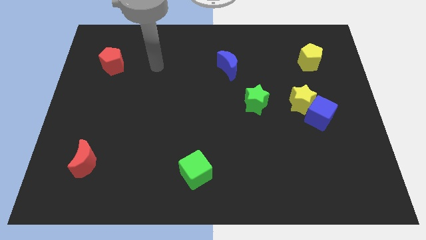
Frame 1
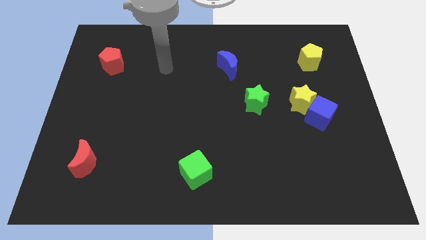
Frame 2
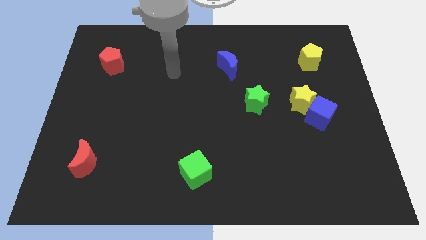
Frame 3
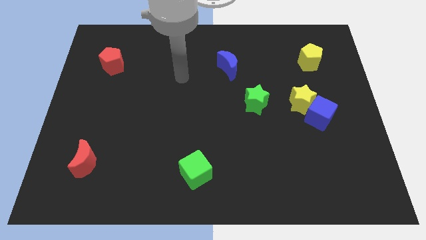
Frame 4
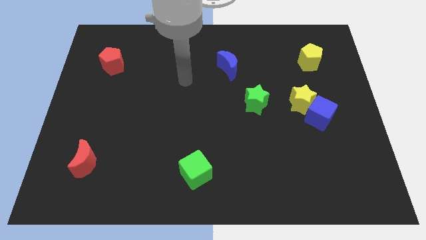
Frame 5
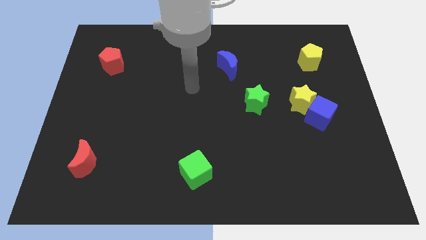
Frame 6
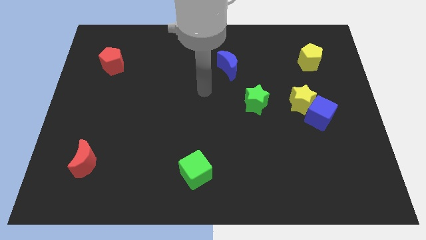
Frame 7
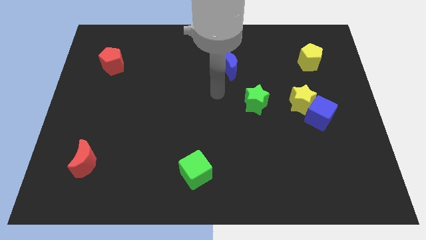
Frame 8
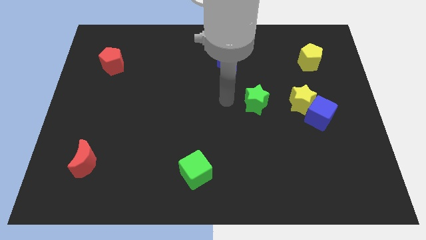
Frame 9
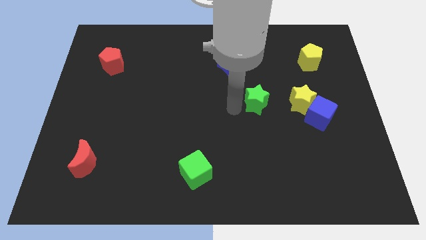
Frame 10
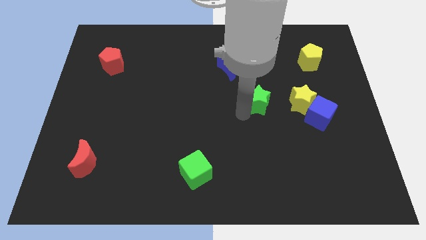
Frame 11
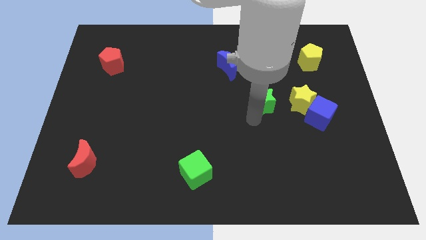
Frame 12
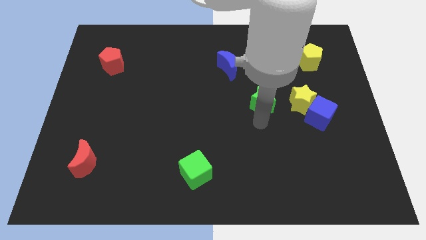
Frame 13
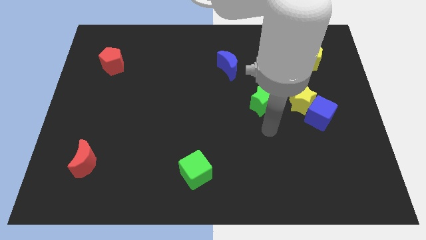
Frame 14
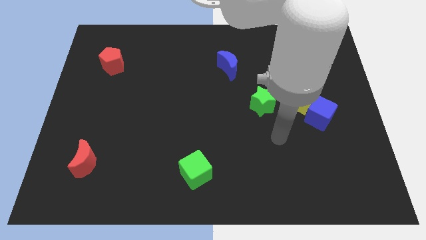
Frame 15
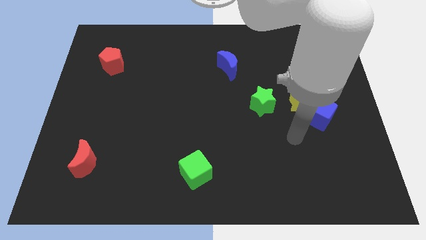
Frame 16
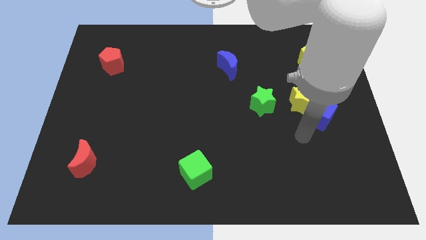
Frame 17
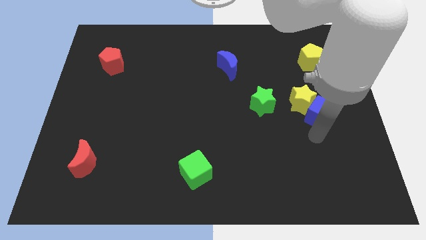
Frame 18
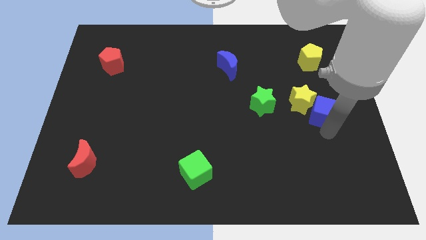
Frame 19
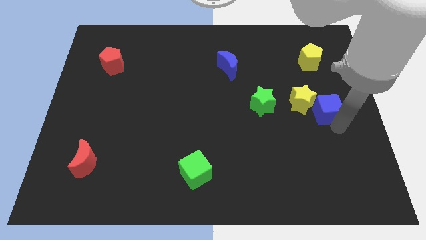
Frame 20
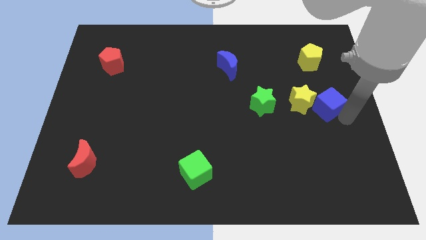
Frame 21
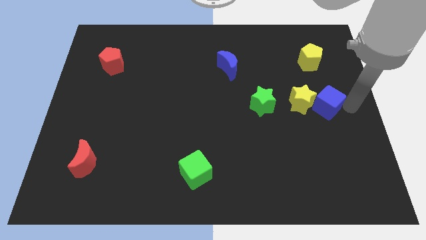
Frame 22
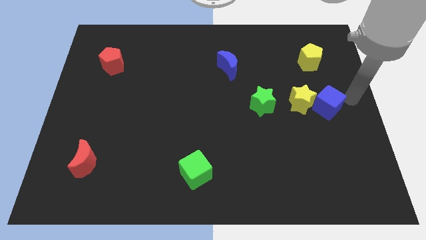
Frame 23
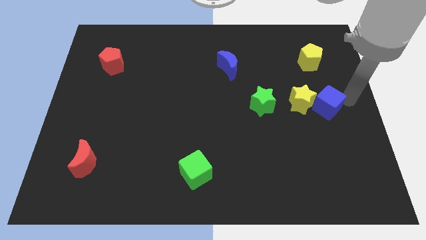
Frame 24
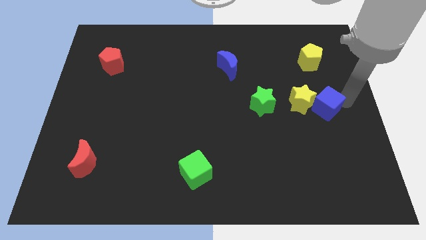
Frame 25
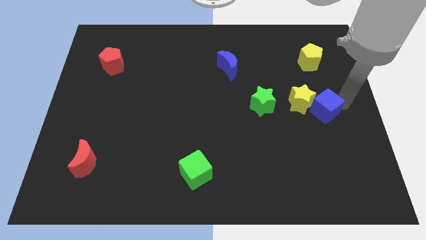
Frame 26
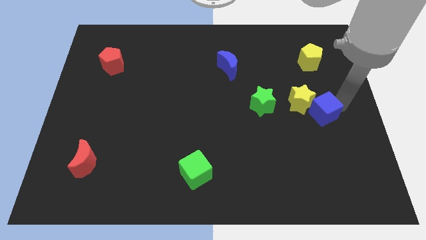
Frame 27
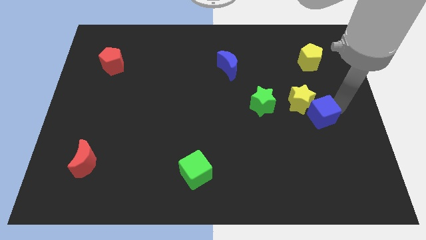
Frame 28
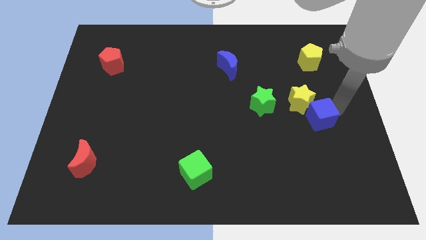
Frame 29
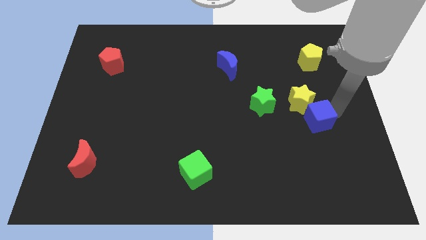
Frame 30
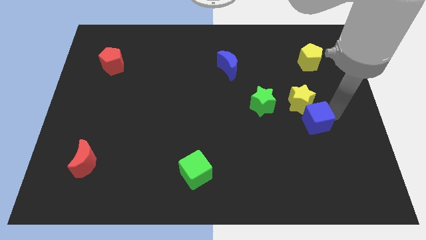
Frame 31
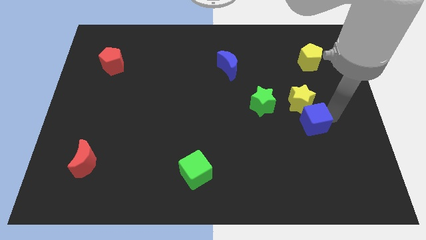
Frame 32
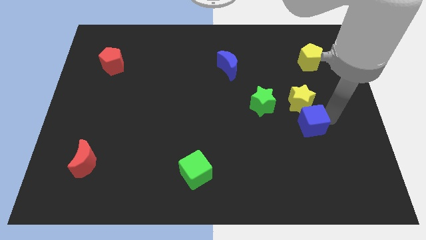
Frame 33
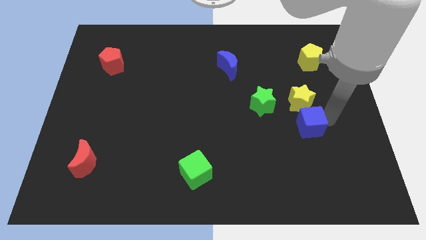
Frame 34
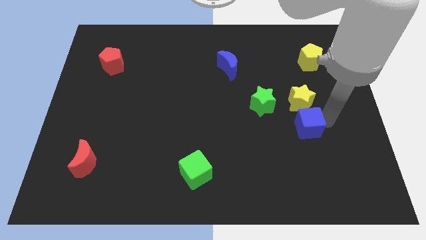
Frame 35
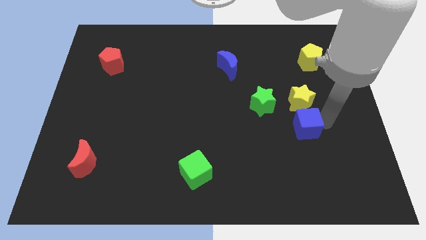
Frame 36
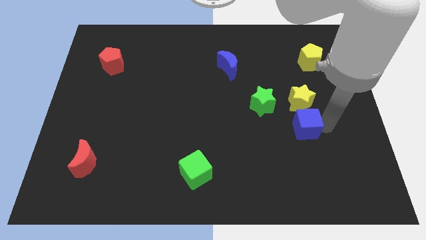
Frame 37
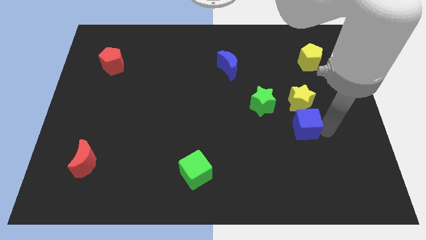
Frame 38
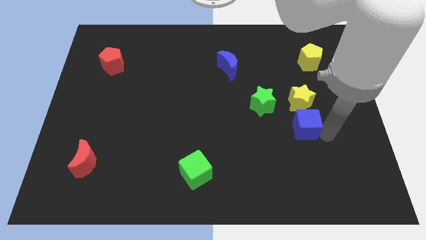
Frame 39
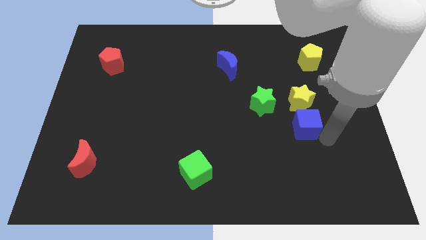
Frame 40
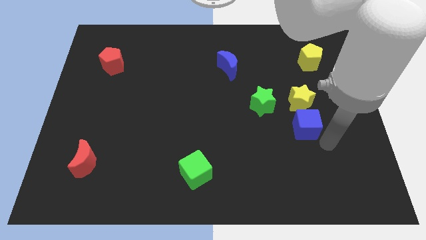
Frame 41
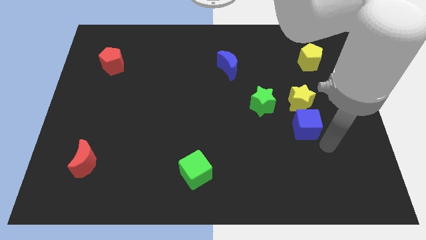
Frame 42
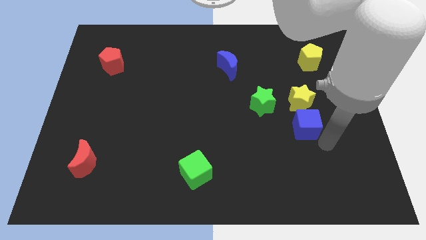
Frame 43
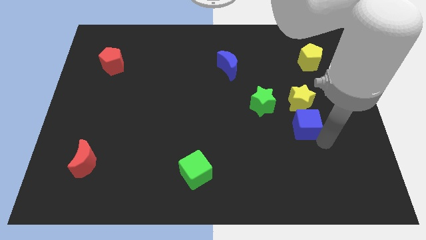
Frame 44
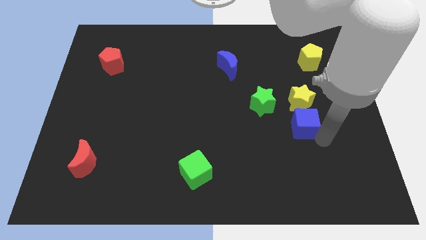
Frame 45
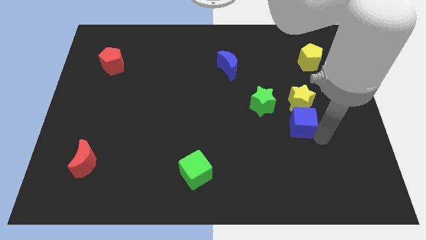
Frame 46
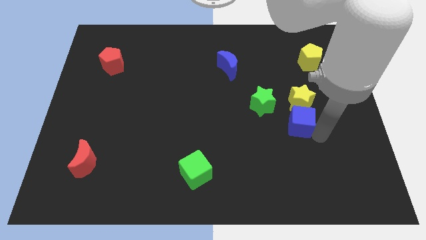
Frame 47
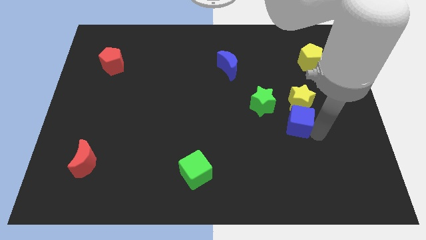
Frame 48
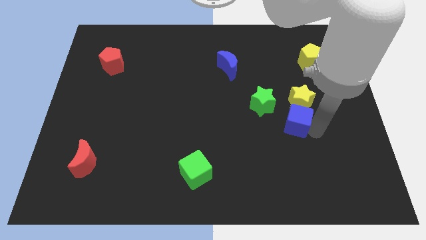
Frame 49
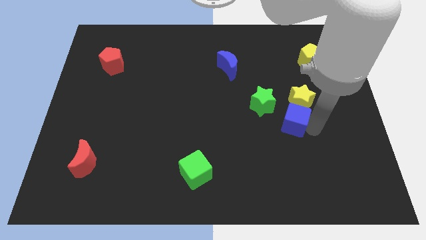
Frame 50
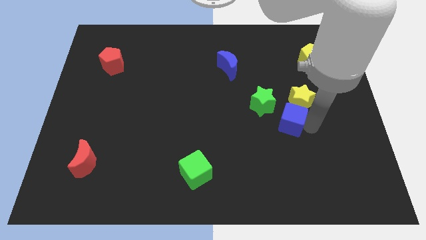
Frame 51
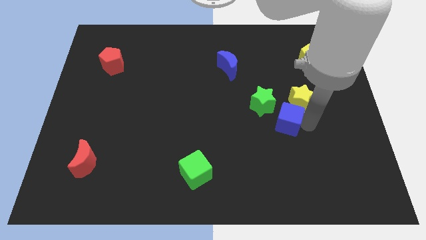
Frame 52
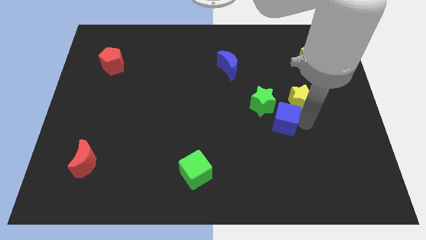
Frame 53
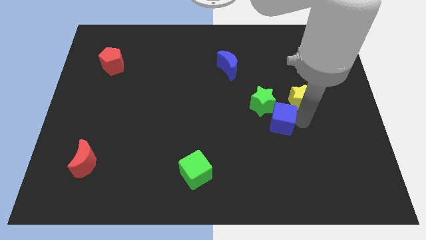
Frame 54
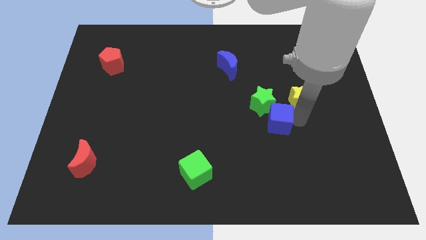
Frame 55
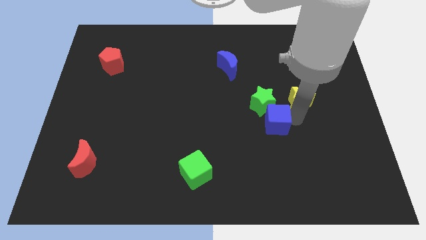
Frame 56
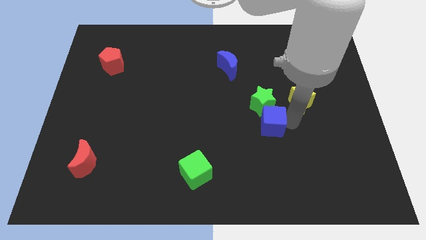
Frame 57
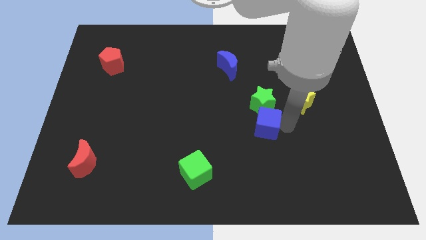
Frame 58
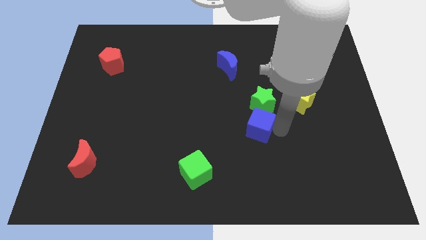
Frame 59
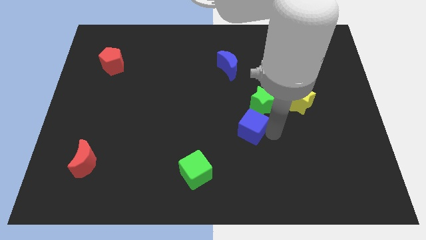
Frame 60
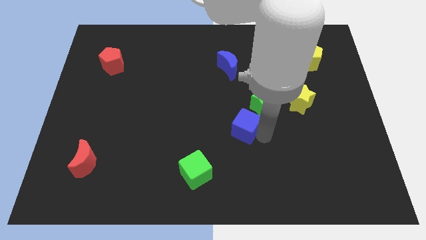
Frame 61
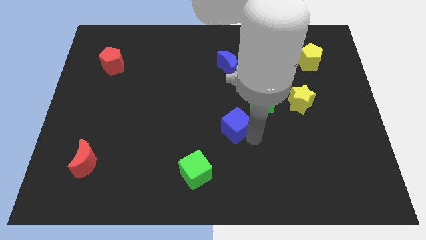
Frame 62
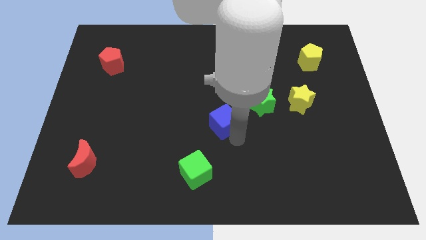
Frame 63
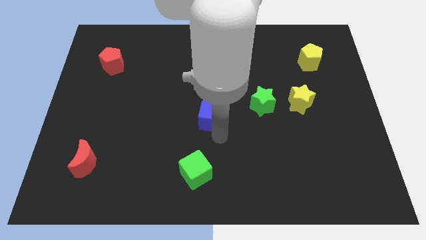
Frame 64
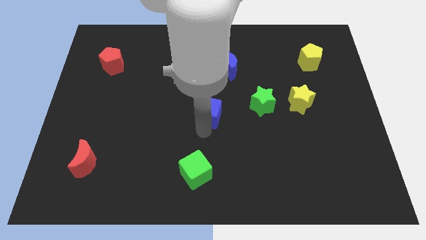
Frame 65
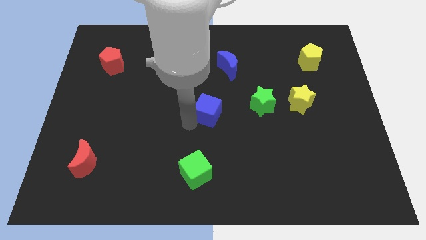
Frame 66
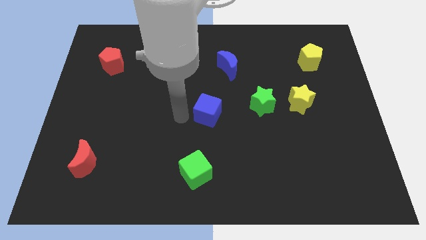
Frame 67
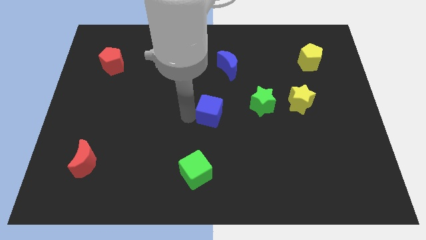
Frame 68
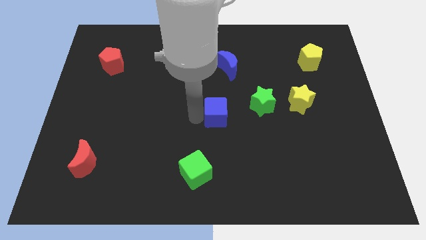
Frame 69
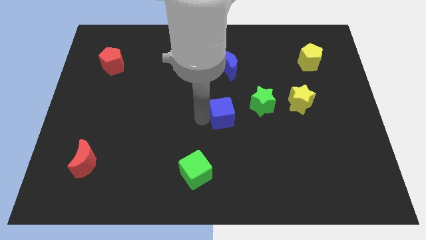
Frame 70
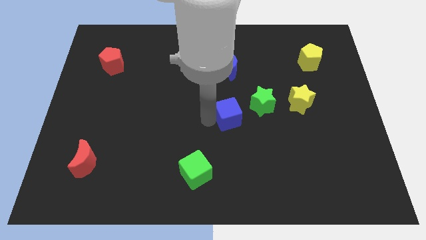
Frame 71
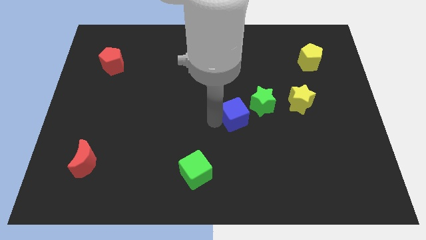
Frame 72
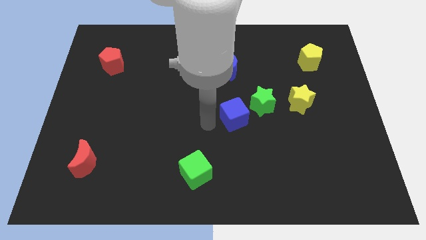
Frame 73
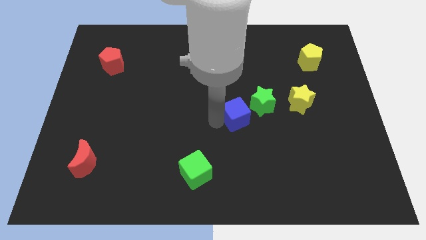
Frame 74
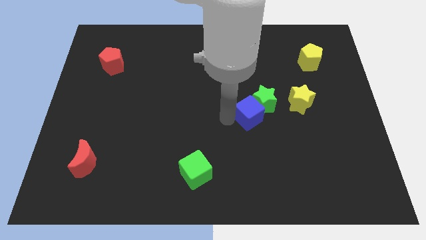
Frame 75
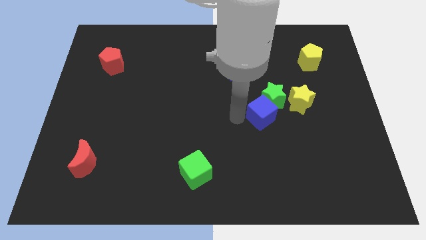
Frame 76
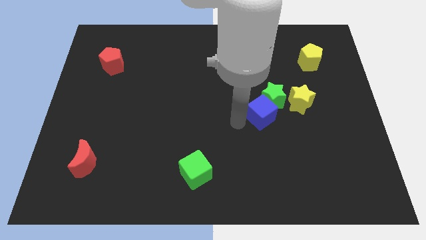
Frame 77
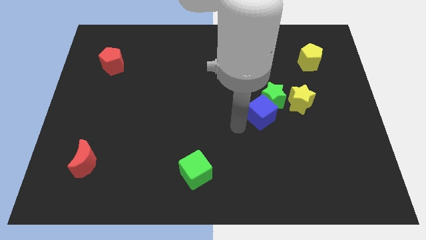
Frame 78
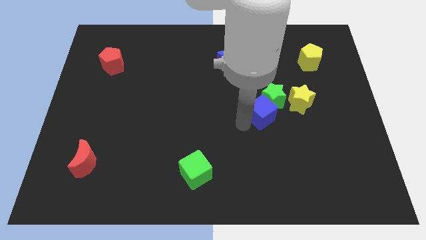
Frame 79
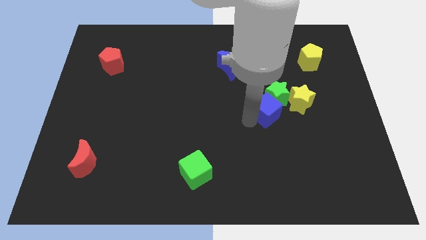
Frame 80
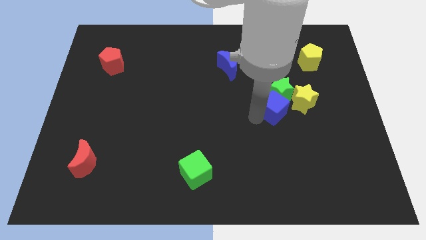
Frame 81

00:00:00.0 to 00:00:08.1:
push the blue cube diagonally upwards and left a little
